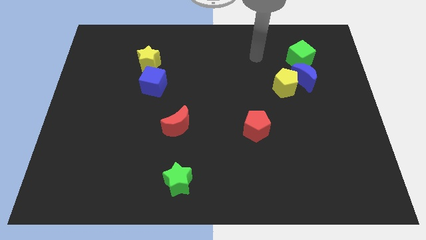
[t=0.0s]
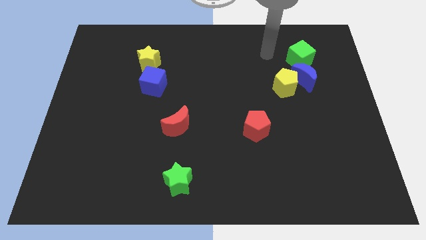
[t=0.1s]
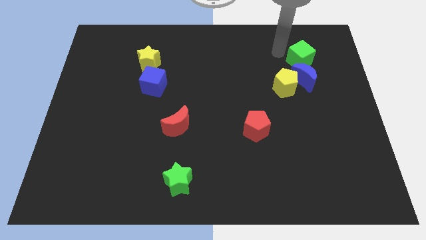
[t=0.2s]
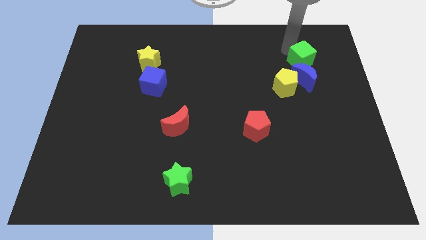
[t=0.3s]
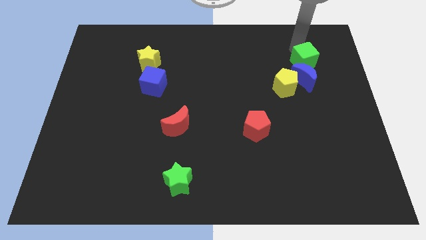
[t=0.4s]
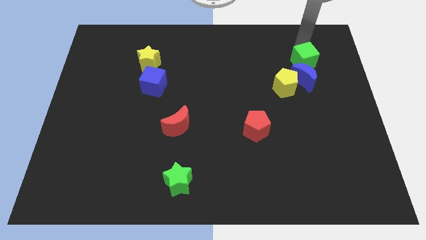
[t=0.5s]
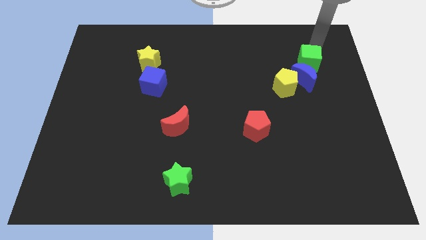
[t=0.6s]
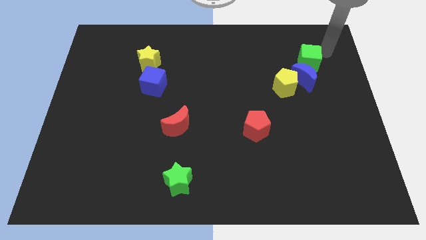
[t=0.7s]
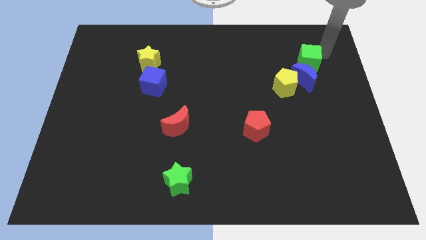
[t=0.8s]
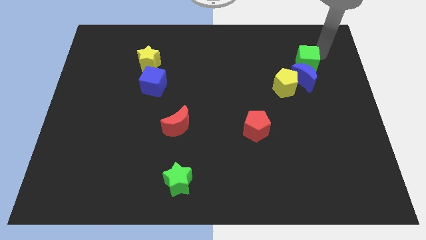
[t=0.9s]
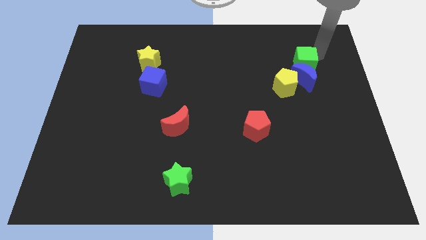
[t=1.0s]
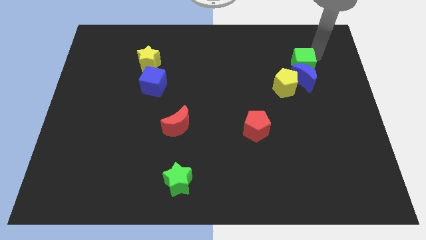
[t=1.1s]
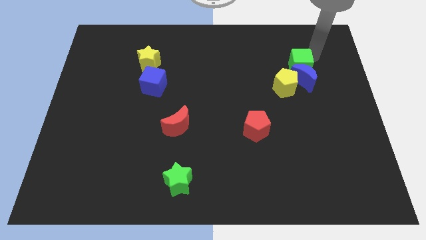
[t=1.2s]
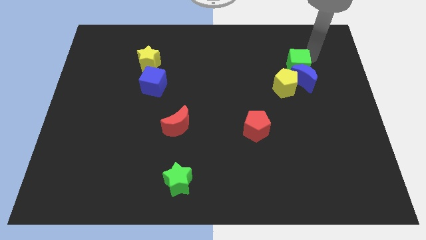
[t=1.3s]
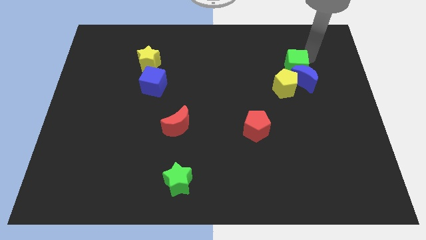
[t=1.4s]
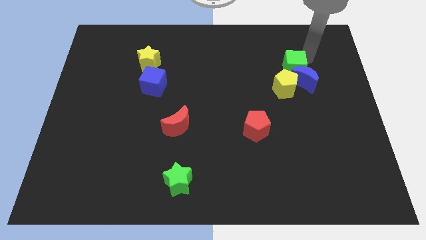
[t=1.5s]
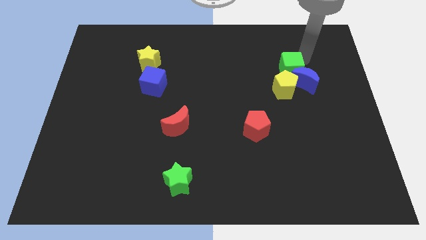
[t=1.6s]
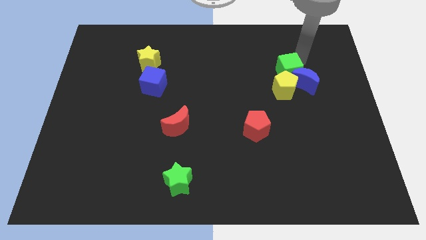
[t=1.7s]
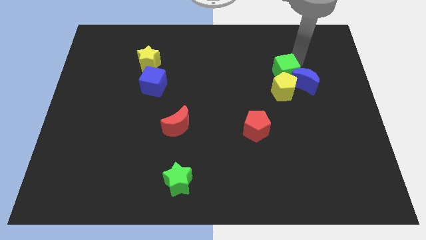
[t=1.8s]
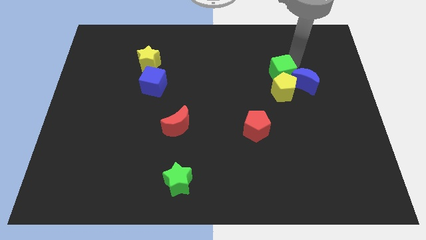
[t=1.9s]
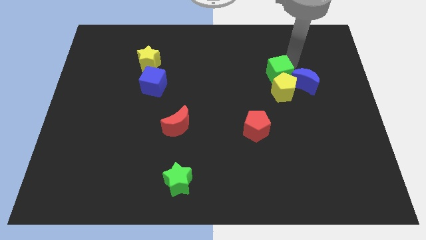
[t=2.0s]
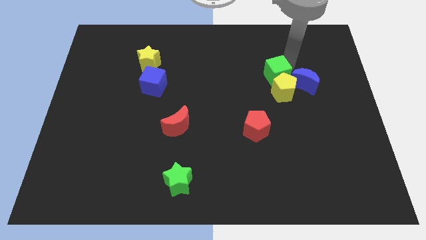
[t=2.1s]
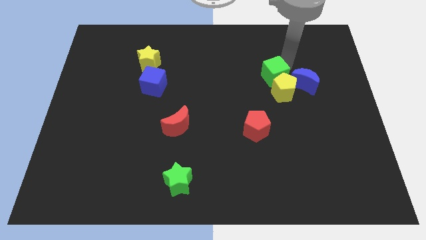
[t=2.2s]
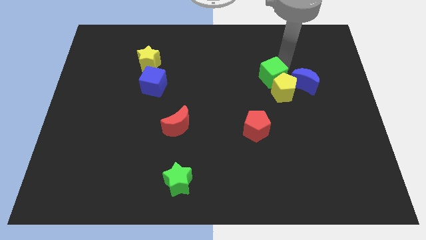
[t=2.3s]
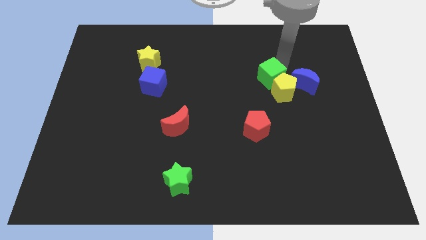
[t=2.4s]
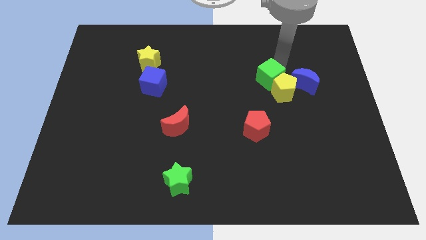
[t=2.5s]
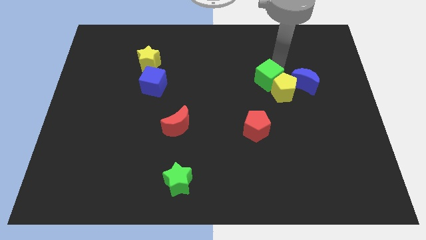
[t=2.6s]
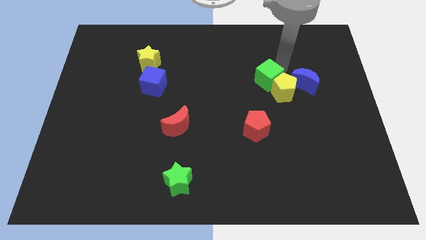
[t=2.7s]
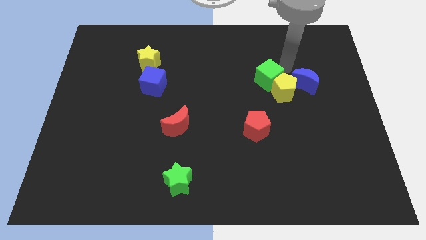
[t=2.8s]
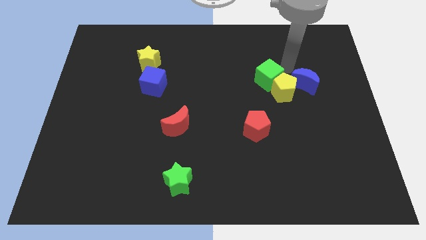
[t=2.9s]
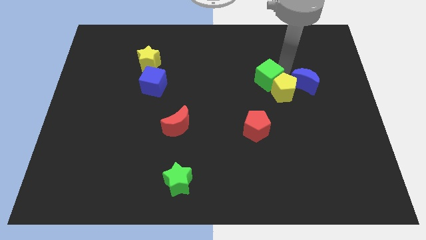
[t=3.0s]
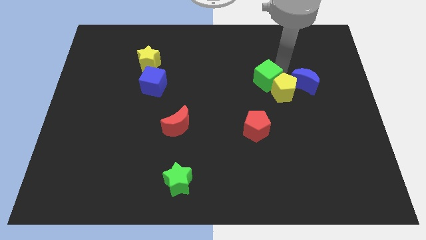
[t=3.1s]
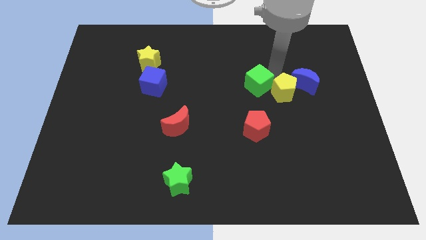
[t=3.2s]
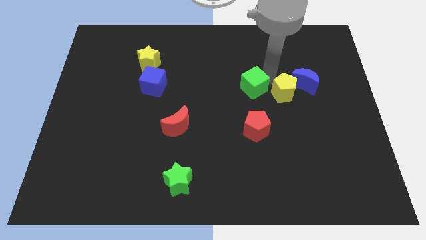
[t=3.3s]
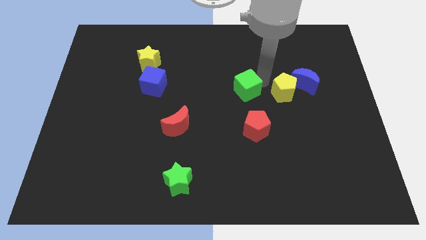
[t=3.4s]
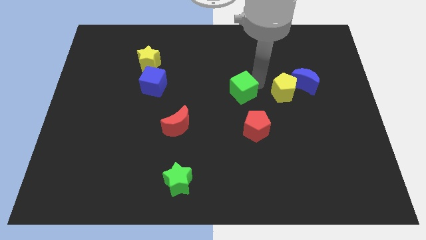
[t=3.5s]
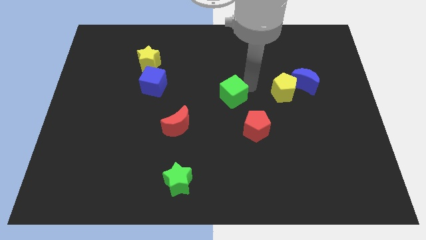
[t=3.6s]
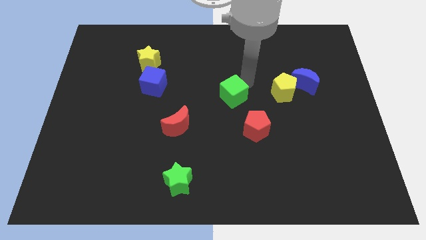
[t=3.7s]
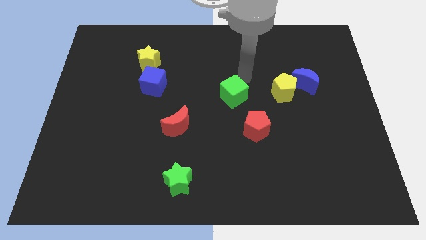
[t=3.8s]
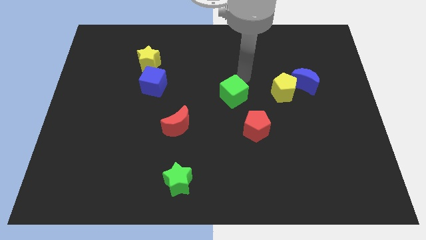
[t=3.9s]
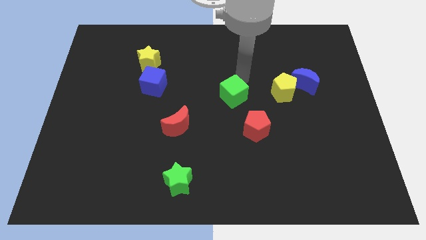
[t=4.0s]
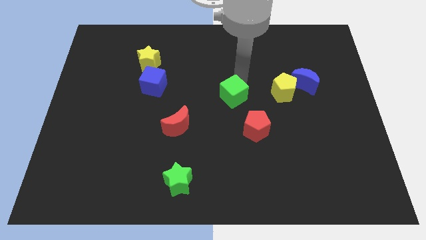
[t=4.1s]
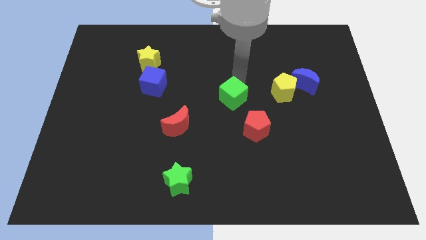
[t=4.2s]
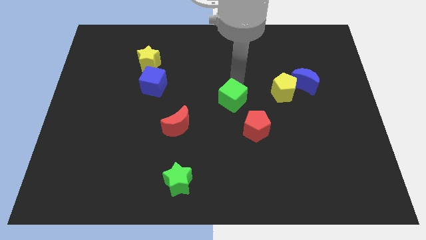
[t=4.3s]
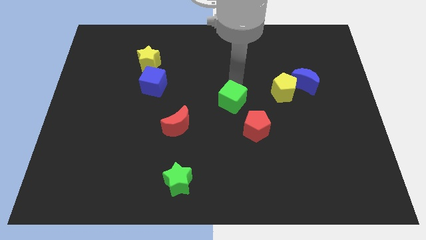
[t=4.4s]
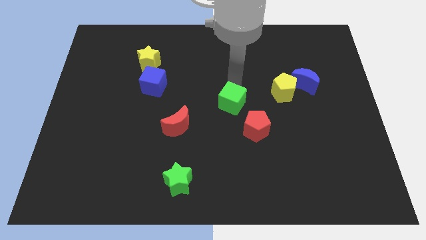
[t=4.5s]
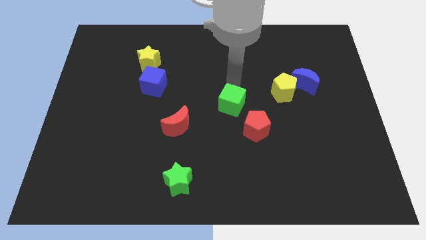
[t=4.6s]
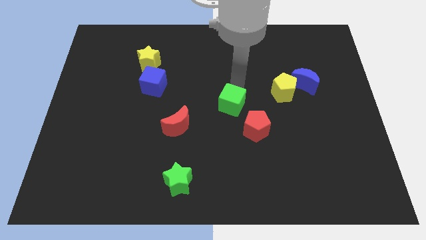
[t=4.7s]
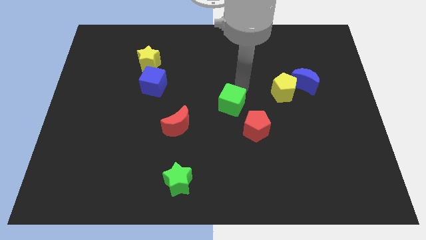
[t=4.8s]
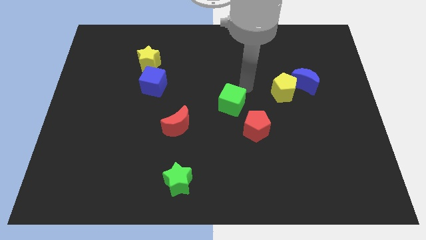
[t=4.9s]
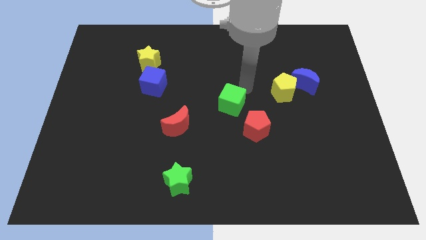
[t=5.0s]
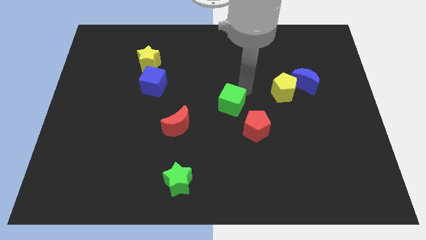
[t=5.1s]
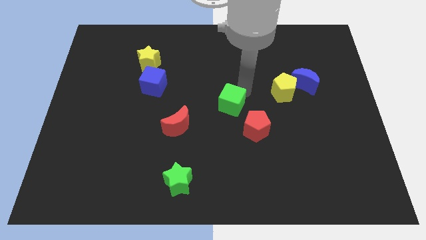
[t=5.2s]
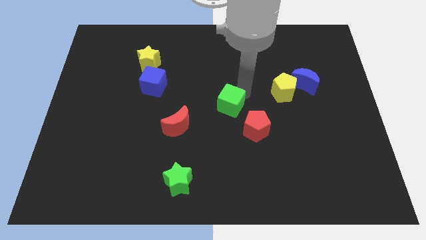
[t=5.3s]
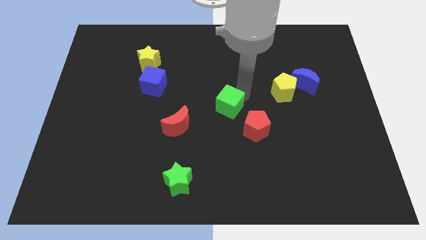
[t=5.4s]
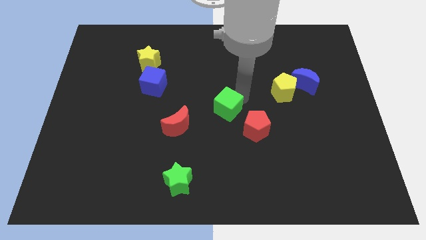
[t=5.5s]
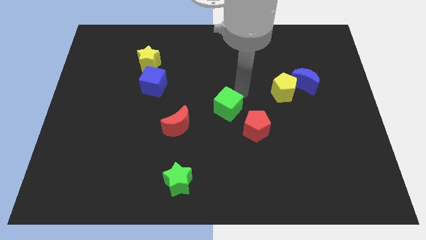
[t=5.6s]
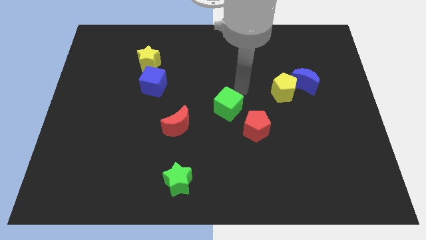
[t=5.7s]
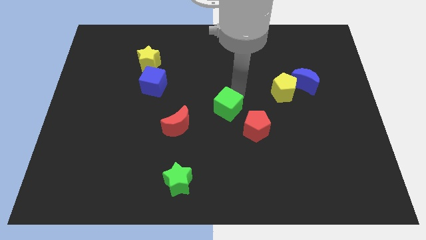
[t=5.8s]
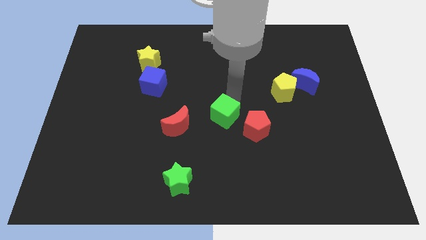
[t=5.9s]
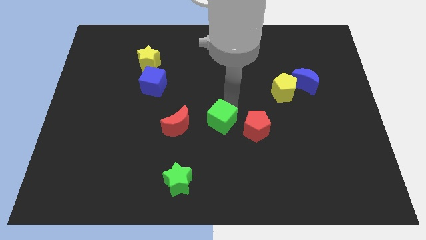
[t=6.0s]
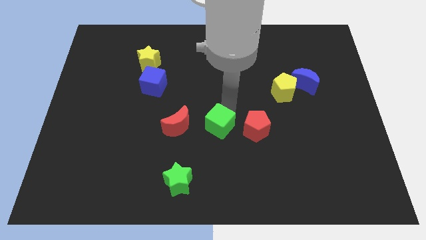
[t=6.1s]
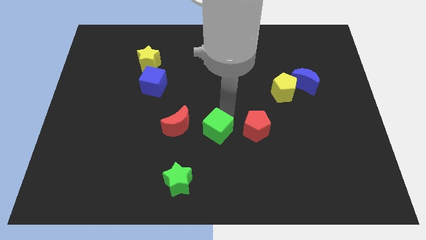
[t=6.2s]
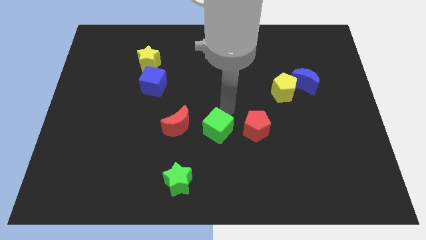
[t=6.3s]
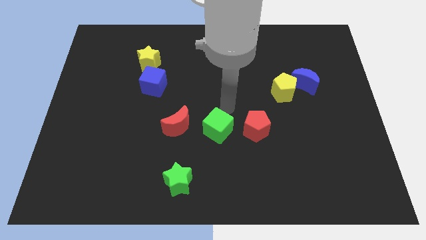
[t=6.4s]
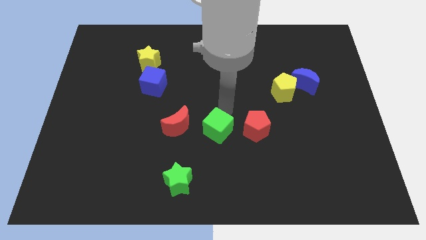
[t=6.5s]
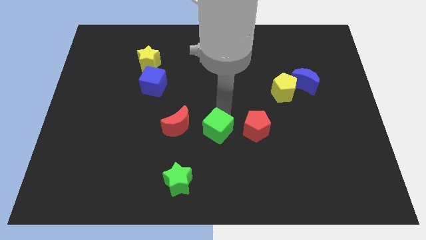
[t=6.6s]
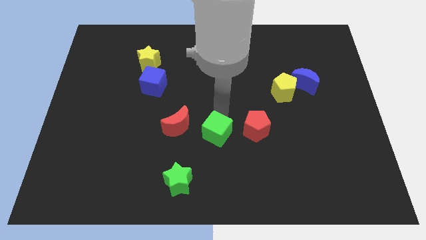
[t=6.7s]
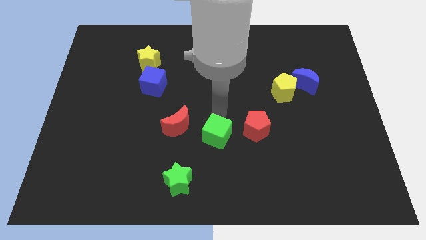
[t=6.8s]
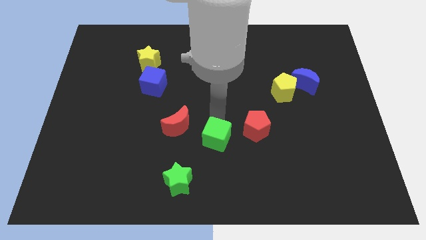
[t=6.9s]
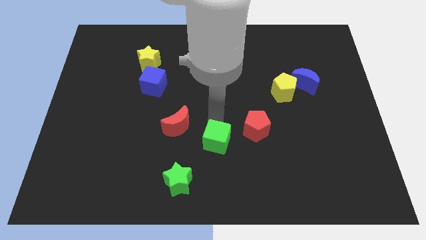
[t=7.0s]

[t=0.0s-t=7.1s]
move the green cube to the top right side of the green star

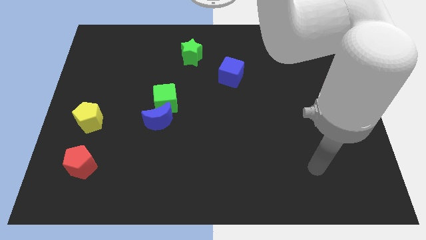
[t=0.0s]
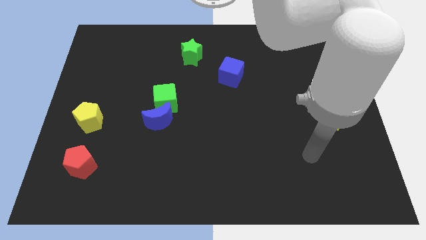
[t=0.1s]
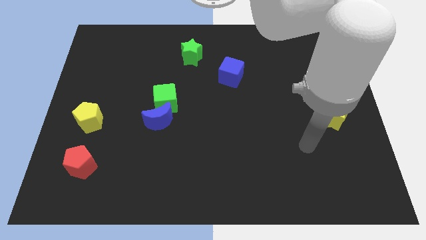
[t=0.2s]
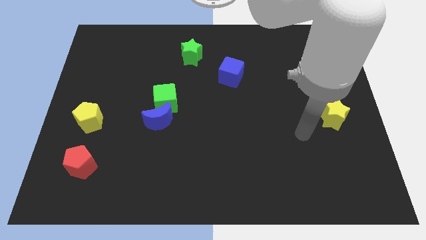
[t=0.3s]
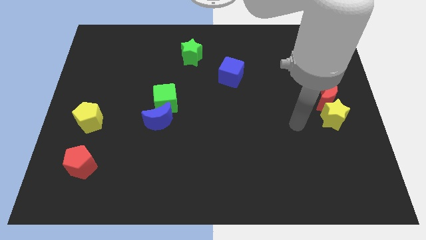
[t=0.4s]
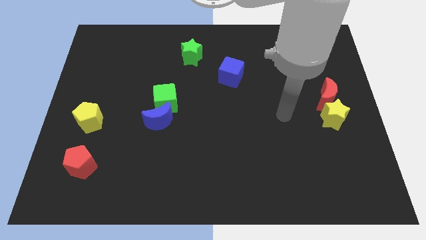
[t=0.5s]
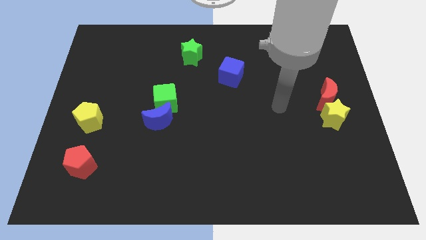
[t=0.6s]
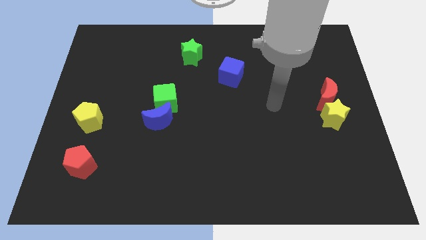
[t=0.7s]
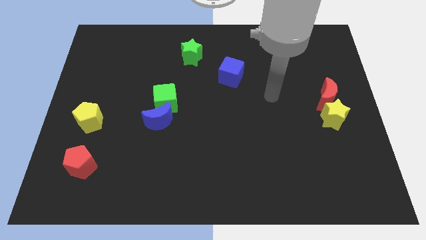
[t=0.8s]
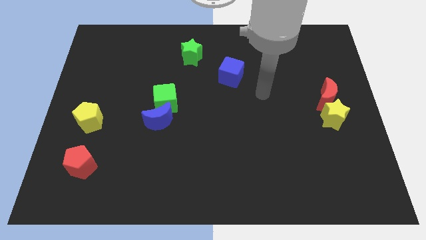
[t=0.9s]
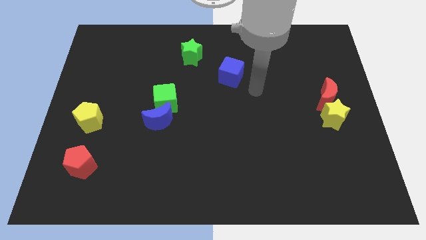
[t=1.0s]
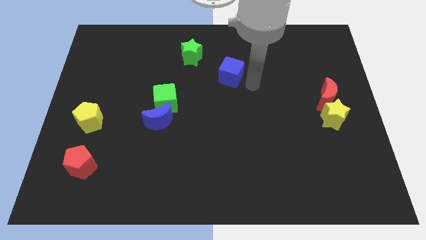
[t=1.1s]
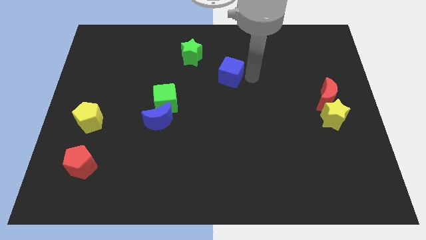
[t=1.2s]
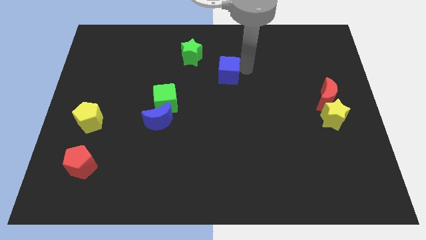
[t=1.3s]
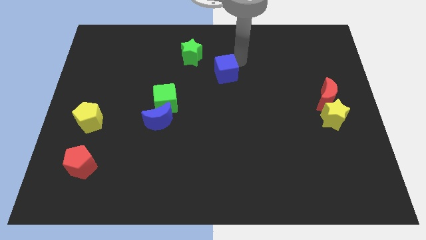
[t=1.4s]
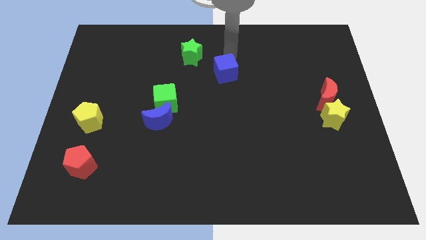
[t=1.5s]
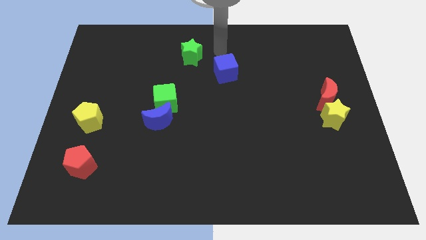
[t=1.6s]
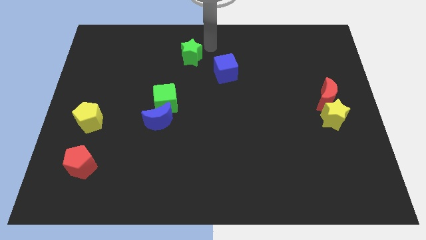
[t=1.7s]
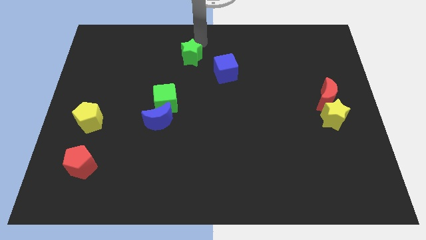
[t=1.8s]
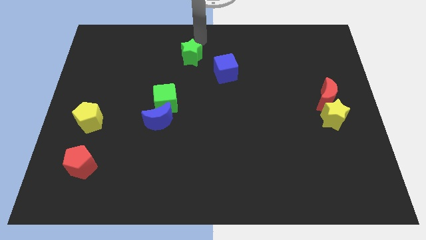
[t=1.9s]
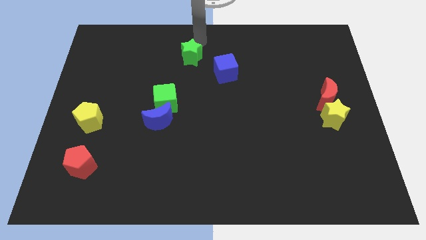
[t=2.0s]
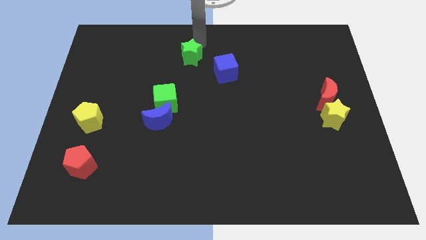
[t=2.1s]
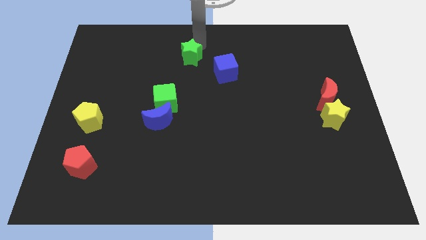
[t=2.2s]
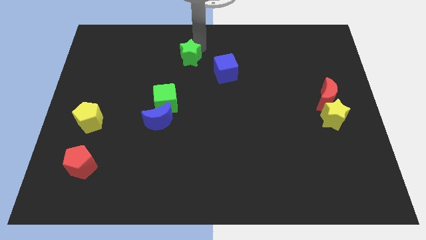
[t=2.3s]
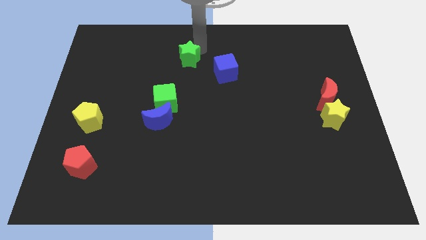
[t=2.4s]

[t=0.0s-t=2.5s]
put the green star to the left side of the blue cube
